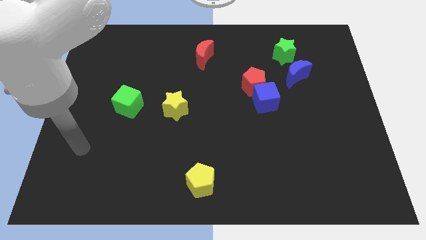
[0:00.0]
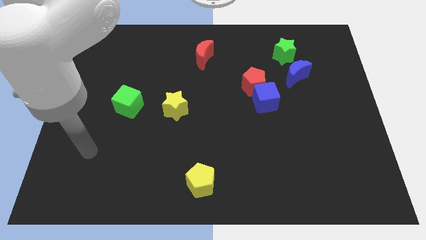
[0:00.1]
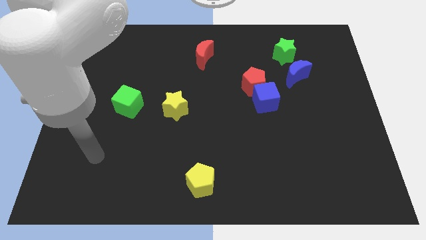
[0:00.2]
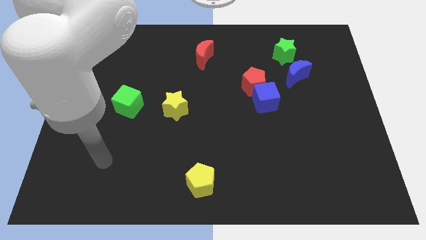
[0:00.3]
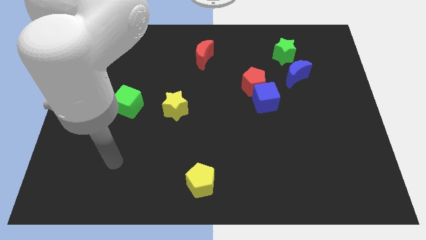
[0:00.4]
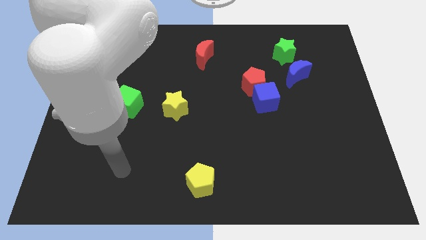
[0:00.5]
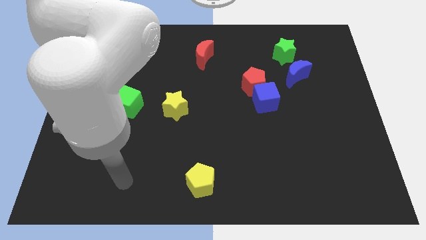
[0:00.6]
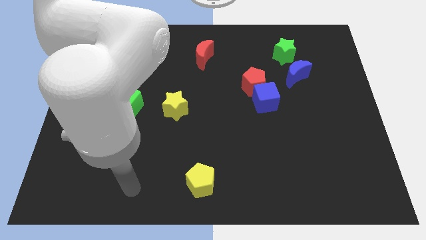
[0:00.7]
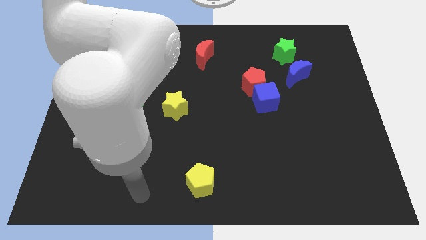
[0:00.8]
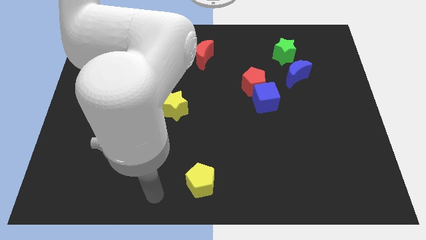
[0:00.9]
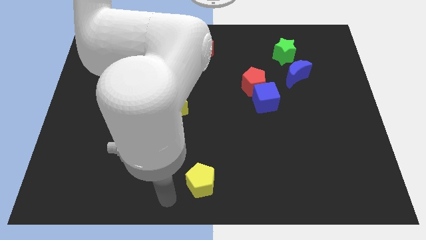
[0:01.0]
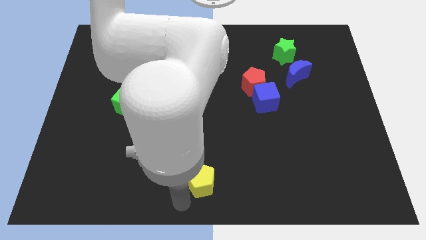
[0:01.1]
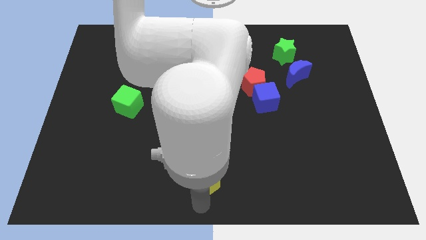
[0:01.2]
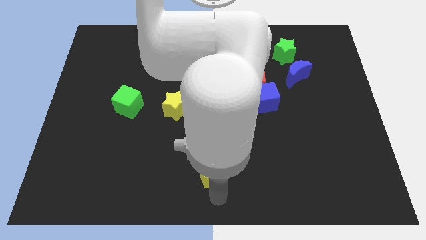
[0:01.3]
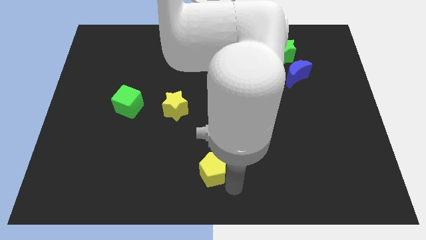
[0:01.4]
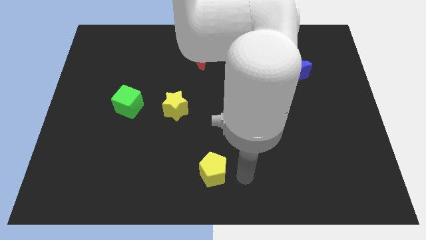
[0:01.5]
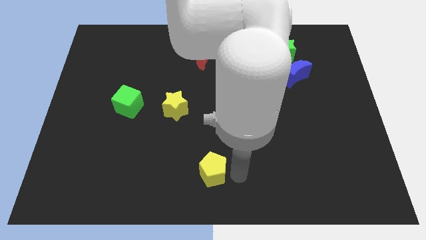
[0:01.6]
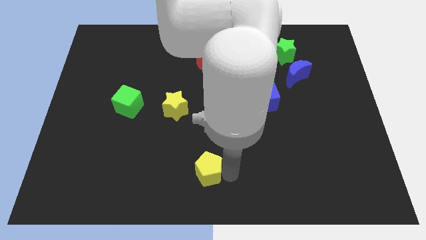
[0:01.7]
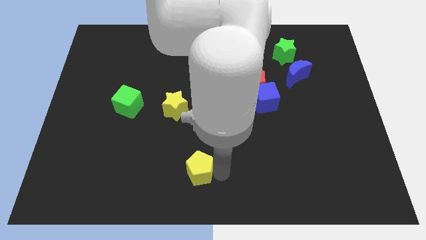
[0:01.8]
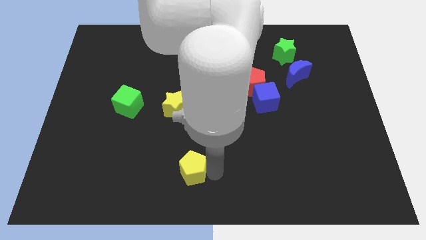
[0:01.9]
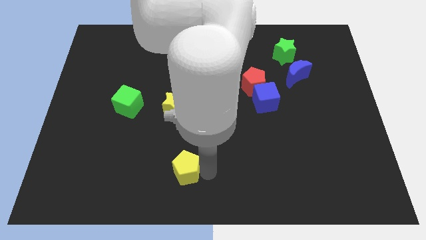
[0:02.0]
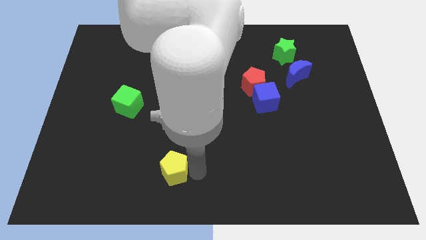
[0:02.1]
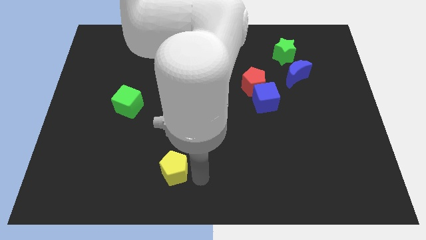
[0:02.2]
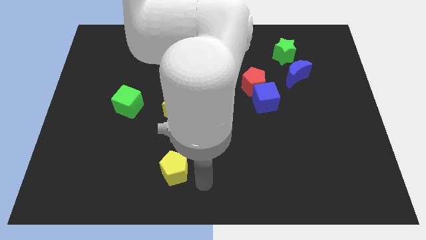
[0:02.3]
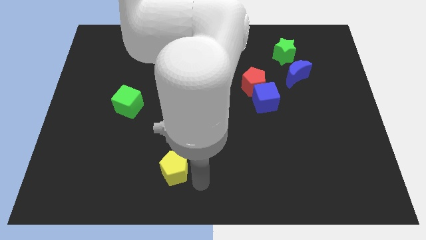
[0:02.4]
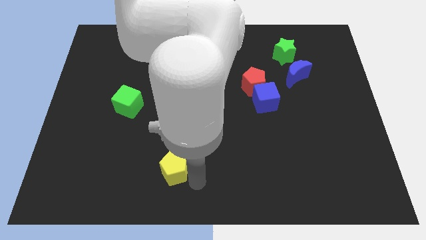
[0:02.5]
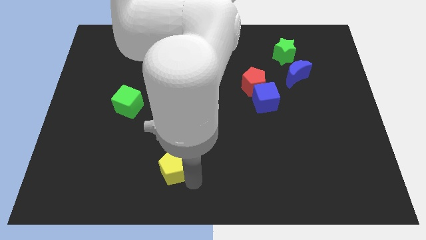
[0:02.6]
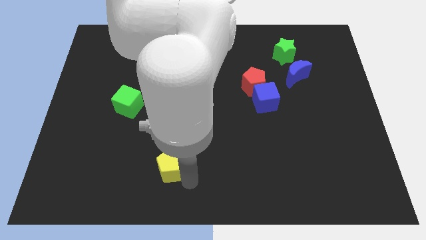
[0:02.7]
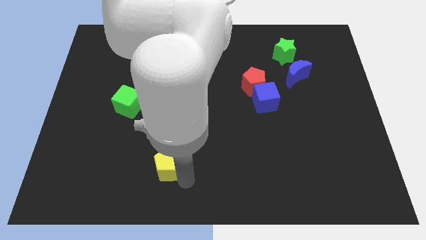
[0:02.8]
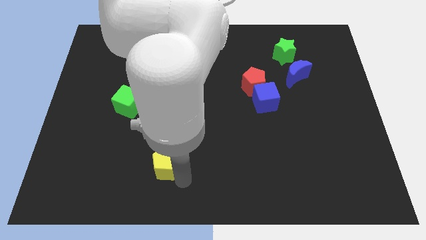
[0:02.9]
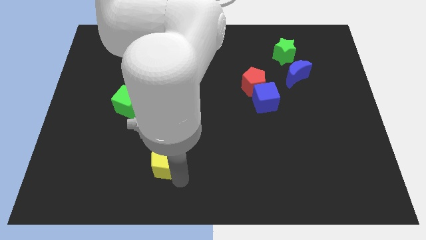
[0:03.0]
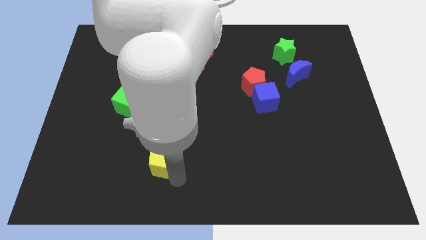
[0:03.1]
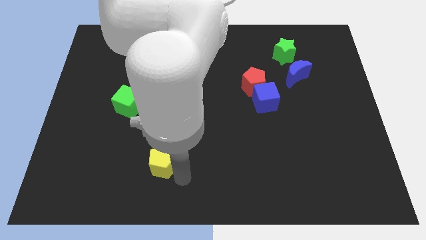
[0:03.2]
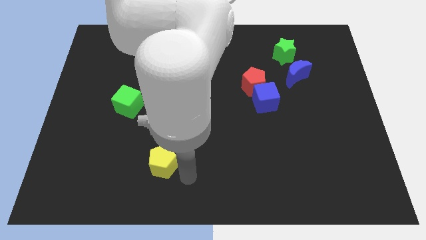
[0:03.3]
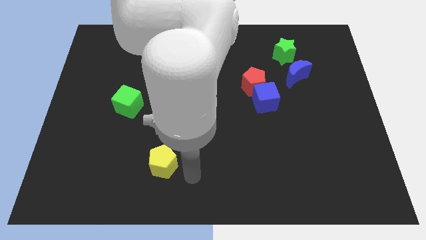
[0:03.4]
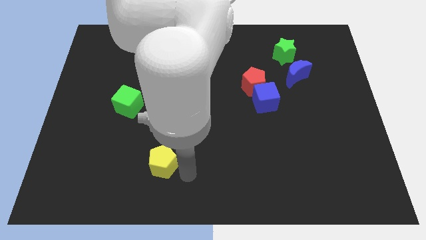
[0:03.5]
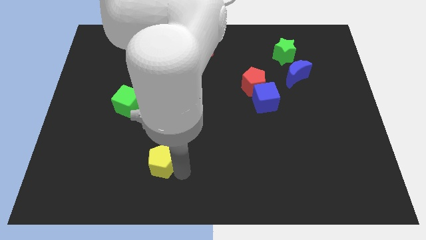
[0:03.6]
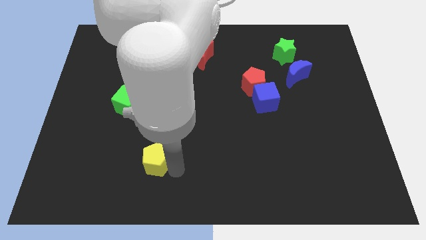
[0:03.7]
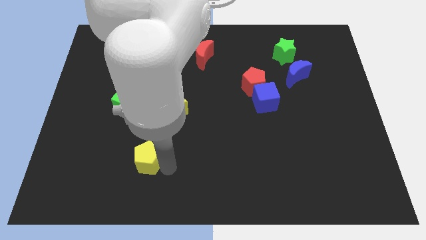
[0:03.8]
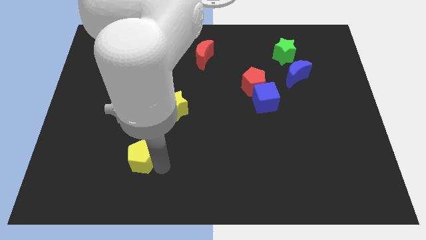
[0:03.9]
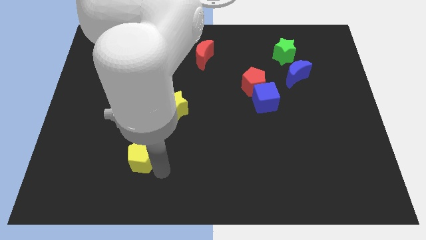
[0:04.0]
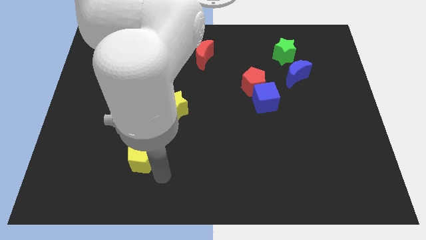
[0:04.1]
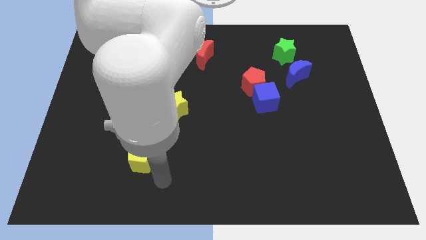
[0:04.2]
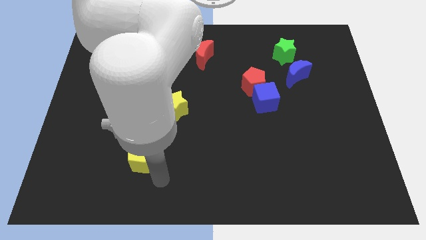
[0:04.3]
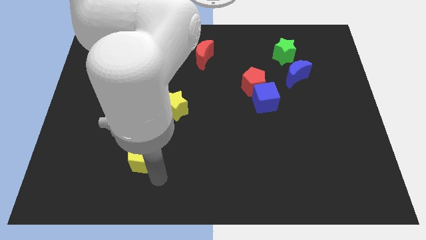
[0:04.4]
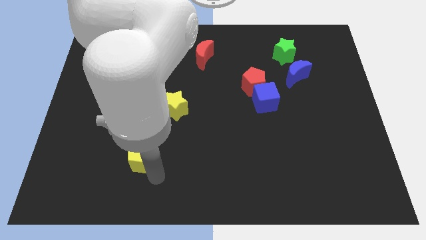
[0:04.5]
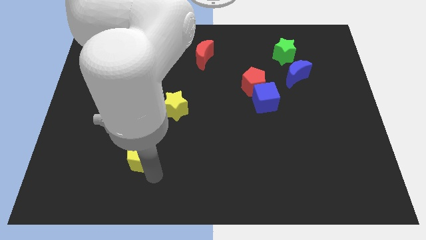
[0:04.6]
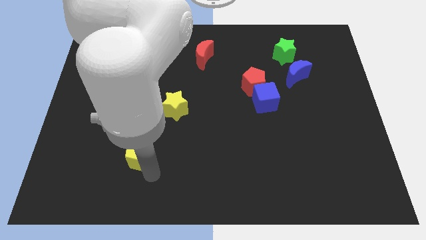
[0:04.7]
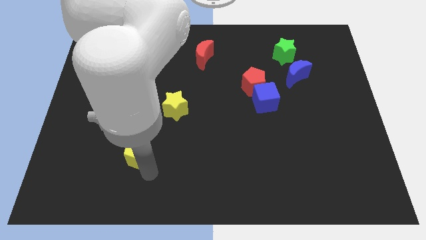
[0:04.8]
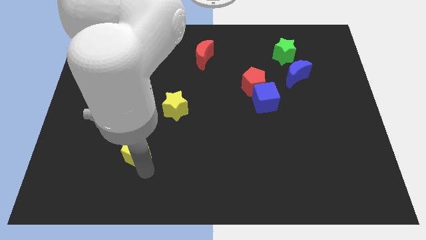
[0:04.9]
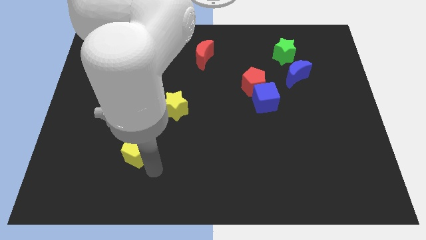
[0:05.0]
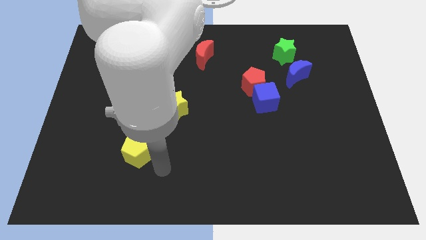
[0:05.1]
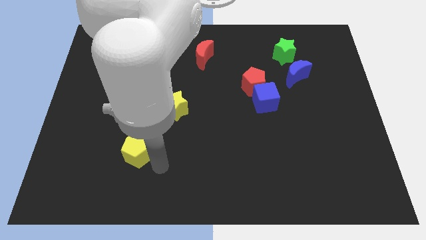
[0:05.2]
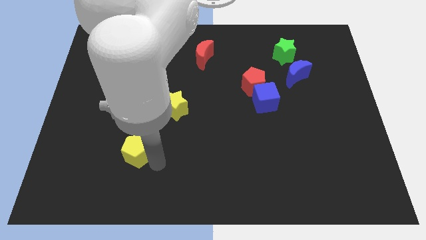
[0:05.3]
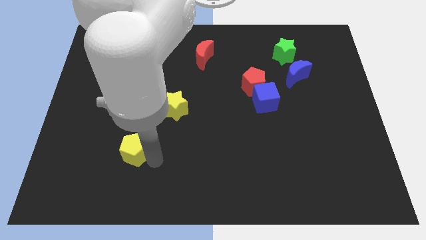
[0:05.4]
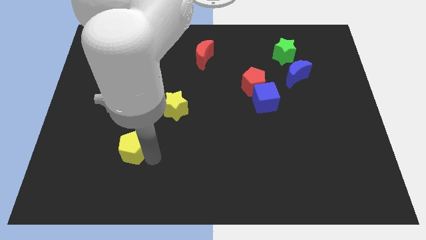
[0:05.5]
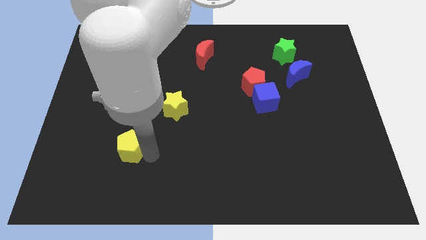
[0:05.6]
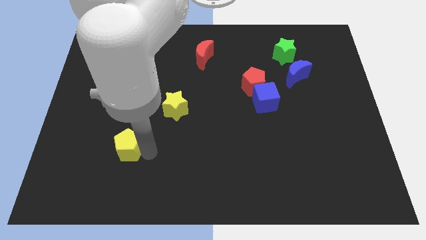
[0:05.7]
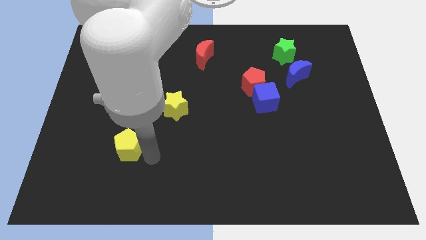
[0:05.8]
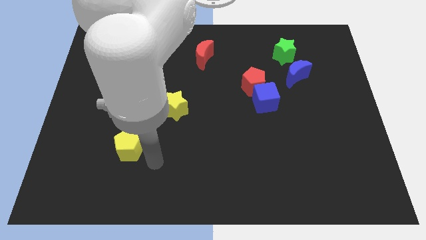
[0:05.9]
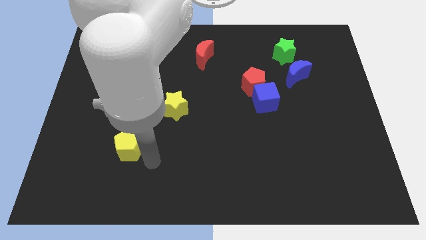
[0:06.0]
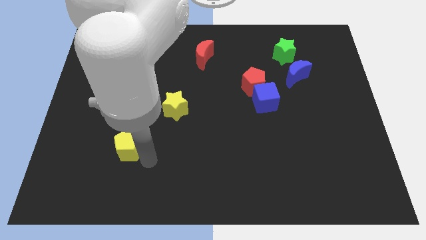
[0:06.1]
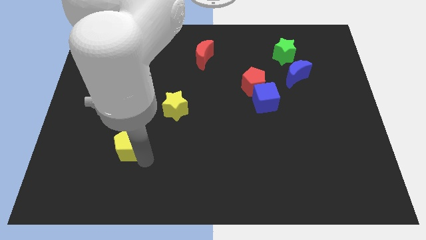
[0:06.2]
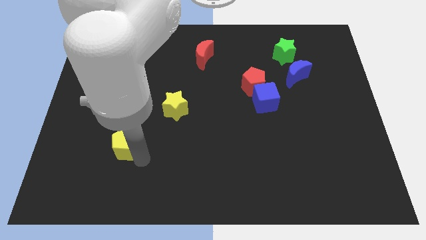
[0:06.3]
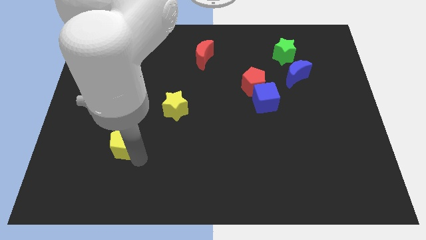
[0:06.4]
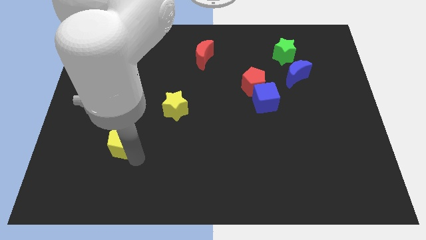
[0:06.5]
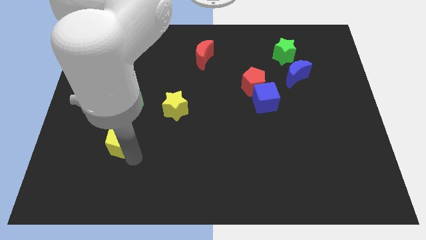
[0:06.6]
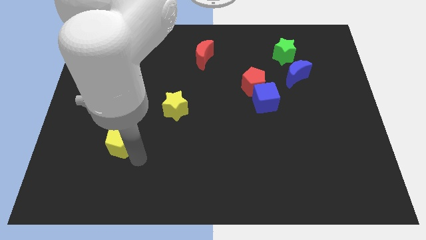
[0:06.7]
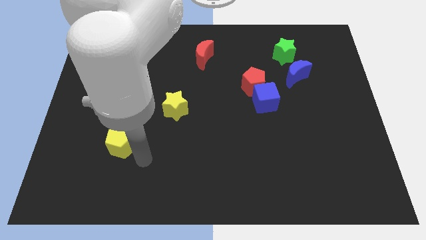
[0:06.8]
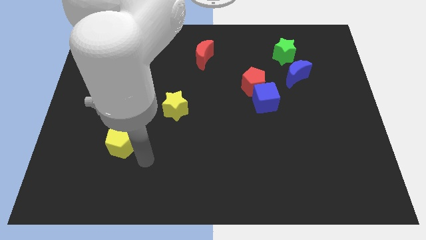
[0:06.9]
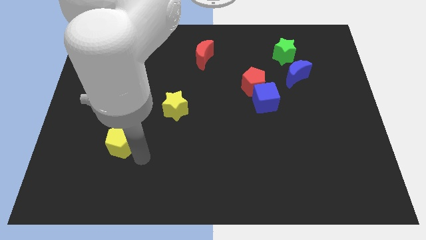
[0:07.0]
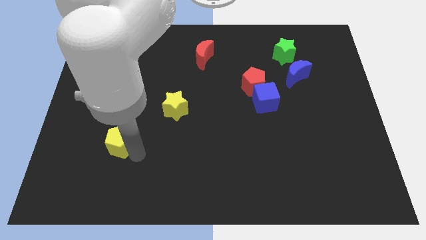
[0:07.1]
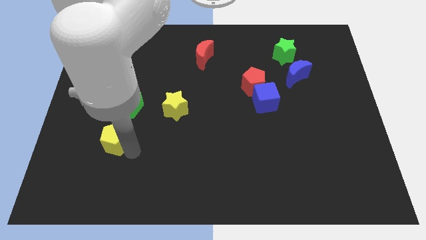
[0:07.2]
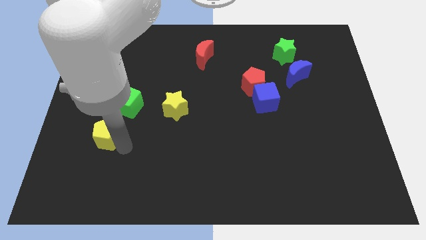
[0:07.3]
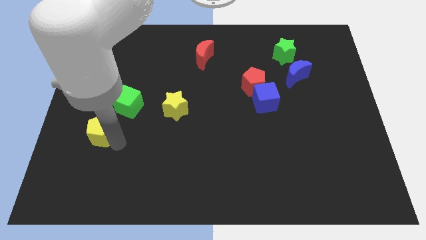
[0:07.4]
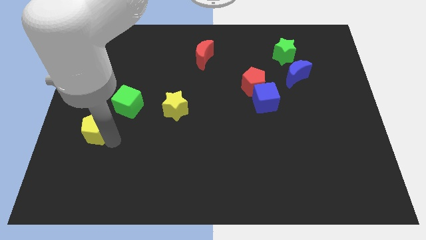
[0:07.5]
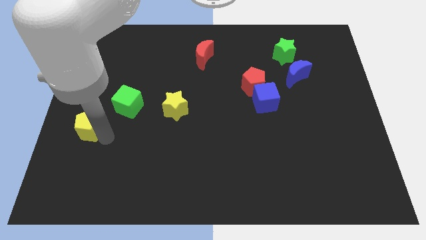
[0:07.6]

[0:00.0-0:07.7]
slide the yellow pentagon to the left side
